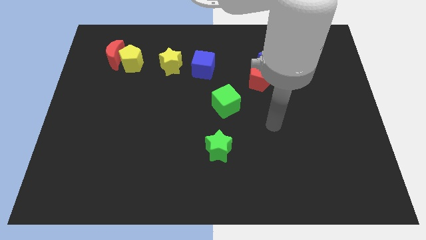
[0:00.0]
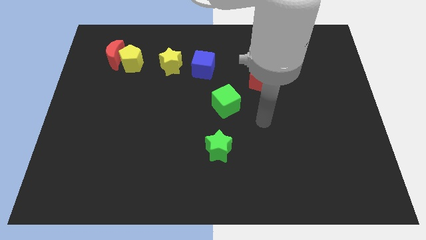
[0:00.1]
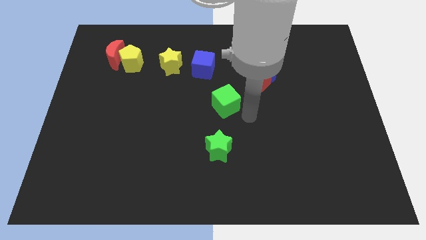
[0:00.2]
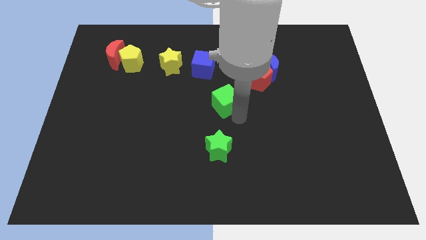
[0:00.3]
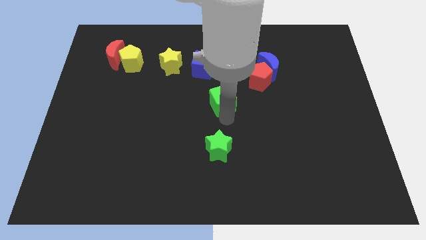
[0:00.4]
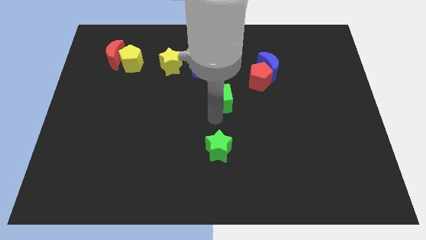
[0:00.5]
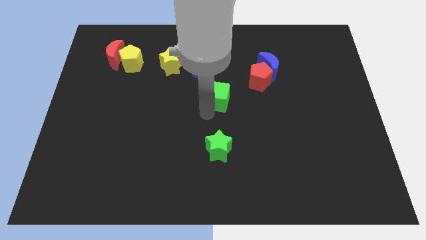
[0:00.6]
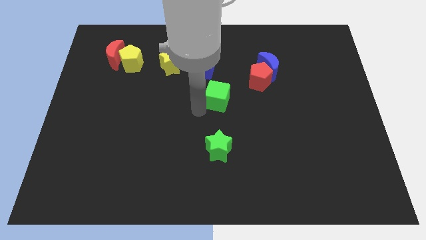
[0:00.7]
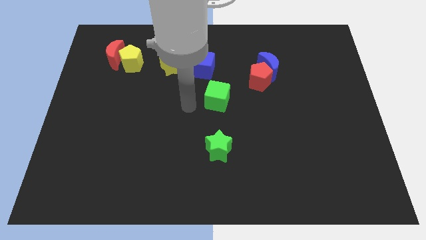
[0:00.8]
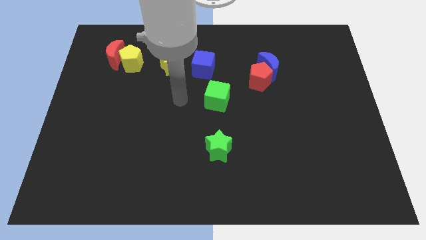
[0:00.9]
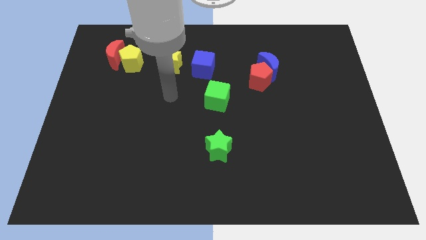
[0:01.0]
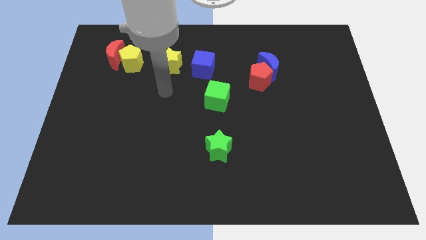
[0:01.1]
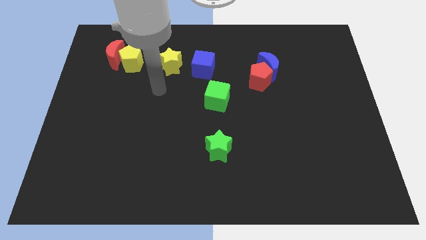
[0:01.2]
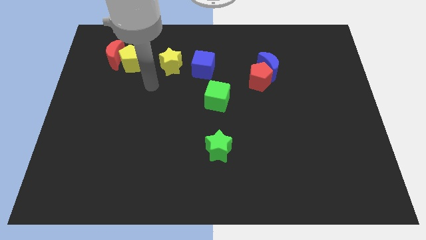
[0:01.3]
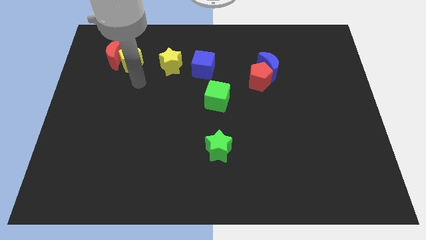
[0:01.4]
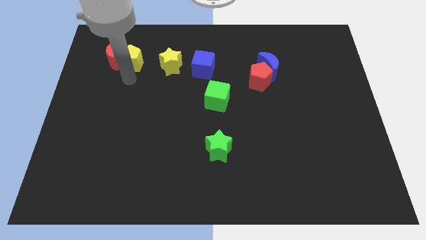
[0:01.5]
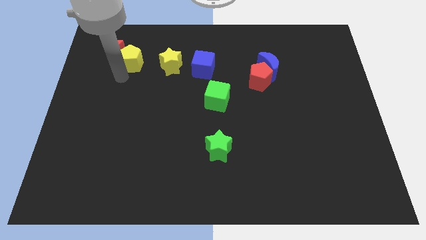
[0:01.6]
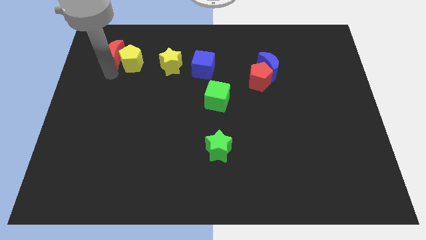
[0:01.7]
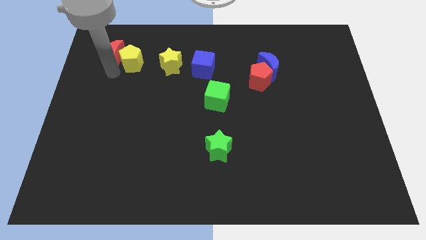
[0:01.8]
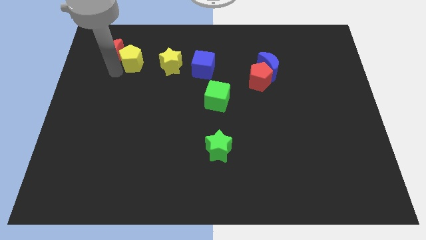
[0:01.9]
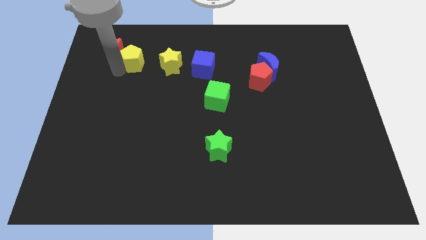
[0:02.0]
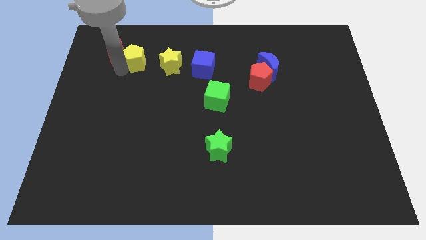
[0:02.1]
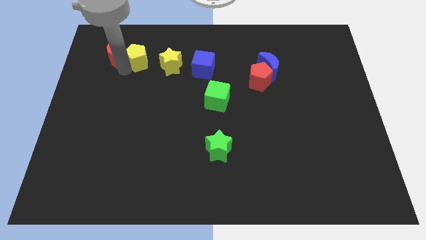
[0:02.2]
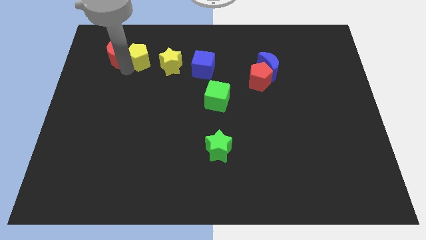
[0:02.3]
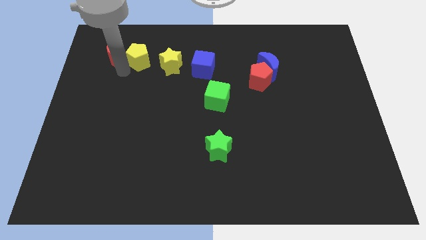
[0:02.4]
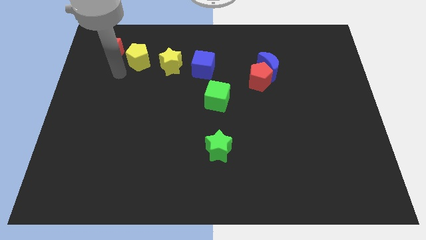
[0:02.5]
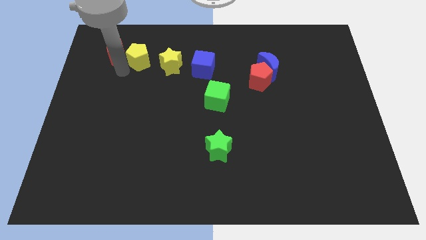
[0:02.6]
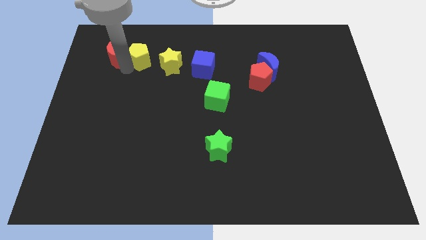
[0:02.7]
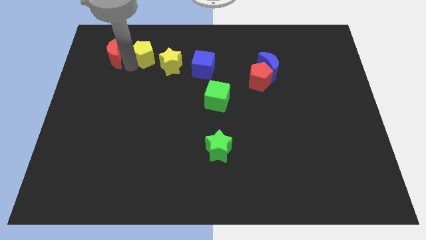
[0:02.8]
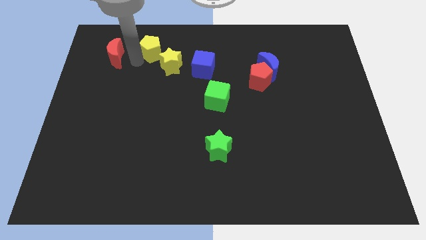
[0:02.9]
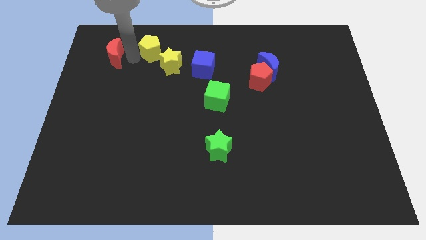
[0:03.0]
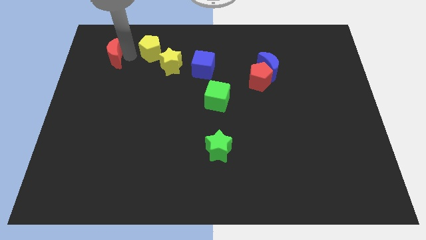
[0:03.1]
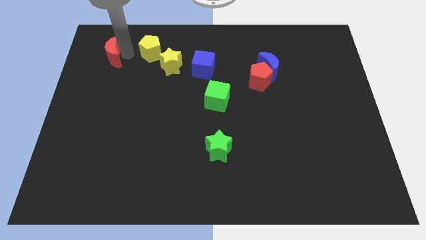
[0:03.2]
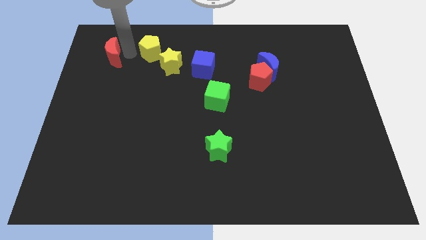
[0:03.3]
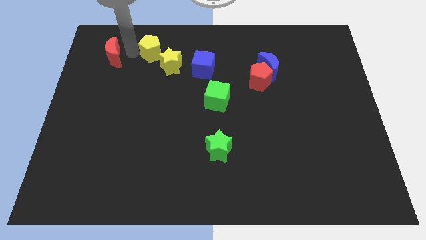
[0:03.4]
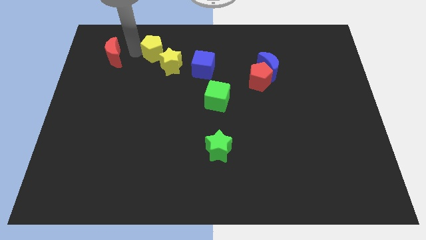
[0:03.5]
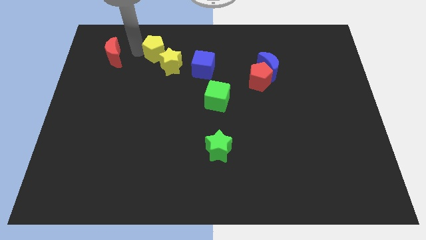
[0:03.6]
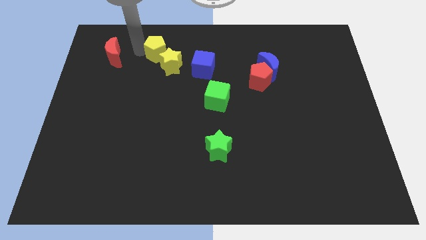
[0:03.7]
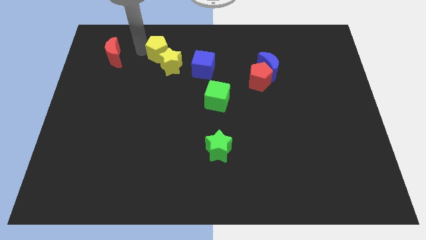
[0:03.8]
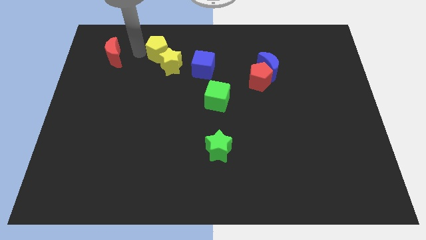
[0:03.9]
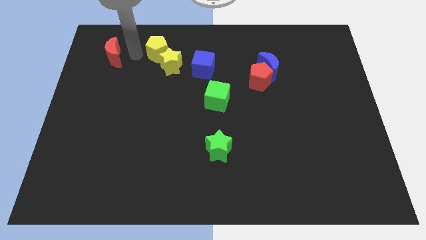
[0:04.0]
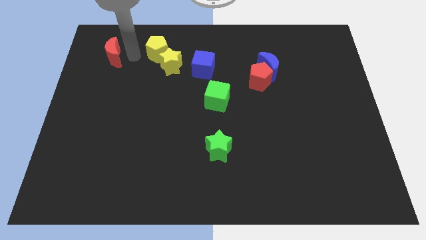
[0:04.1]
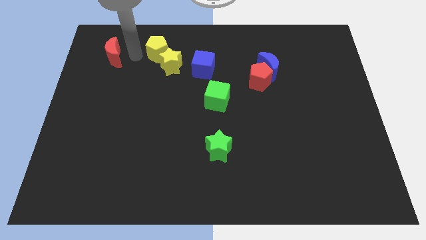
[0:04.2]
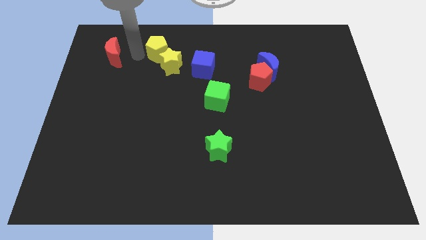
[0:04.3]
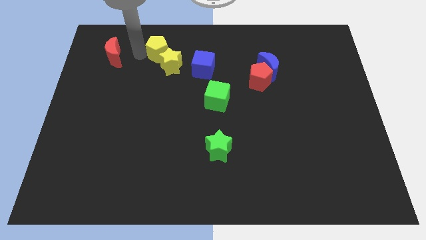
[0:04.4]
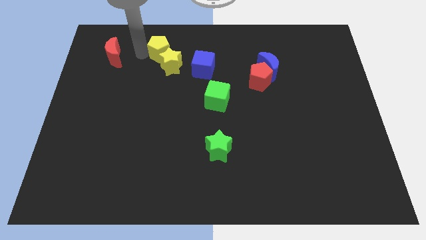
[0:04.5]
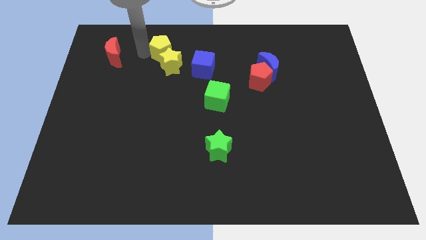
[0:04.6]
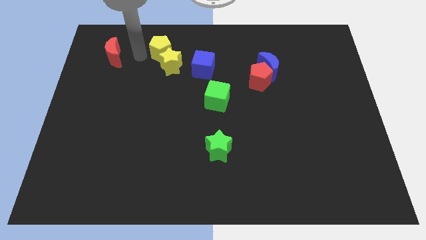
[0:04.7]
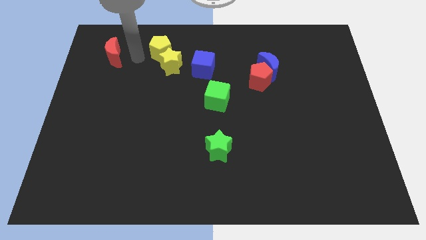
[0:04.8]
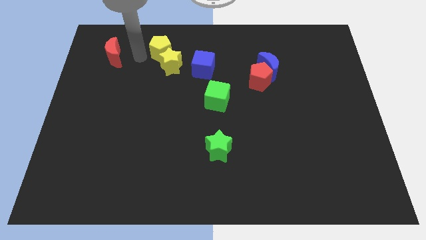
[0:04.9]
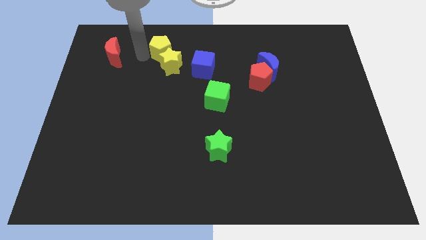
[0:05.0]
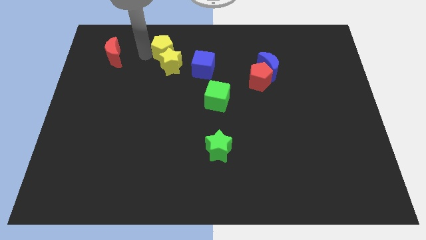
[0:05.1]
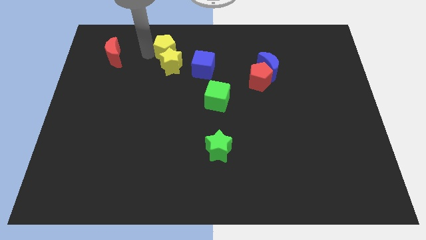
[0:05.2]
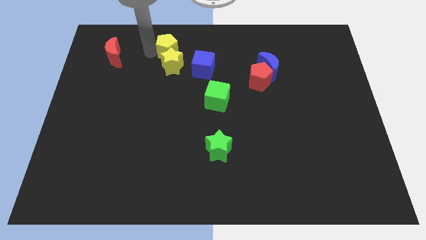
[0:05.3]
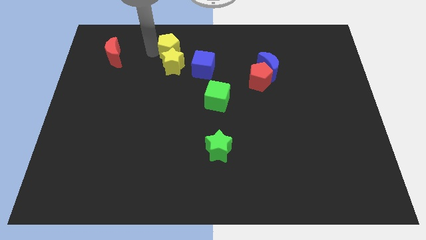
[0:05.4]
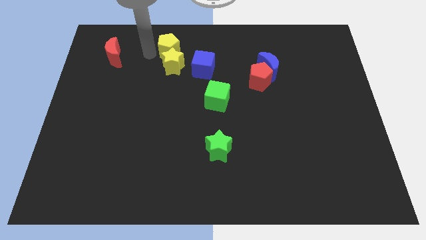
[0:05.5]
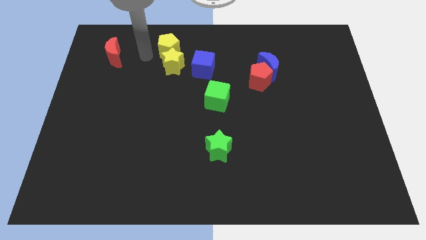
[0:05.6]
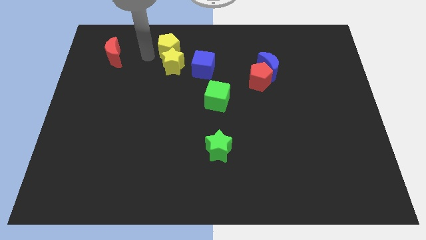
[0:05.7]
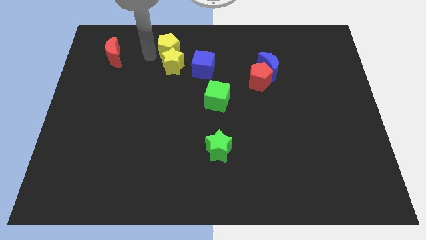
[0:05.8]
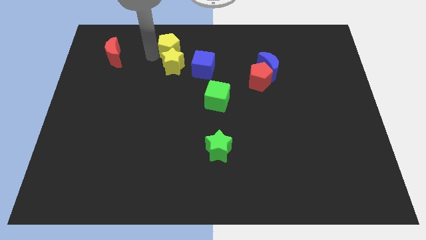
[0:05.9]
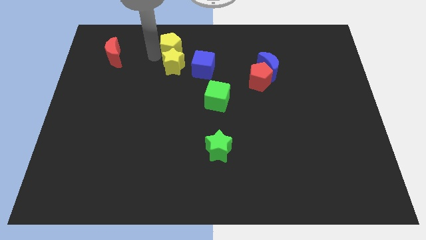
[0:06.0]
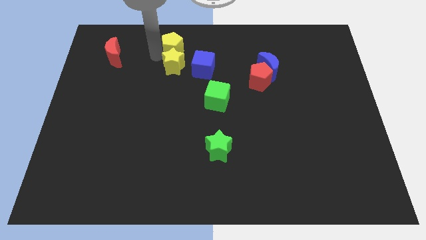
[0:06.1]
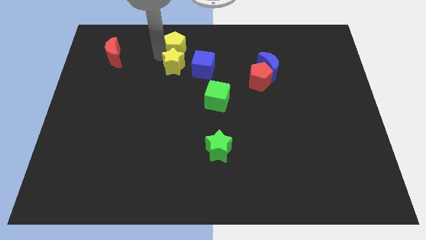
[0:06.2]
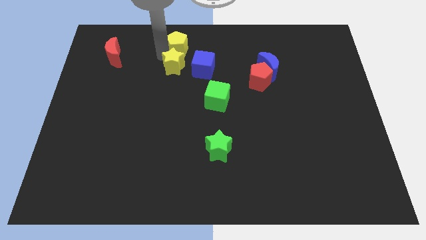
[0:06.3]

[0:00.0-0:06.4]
push the yellow pentagon to the top side
